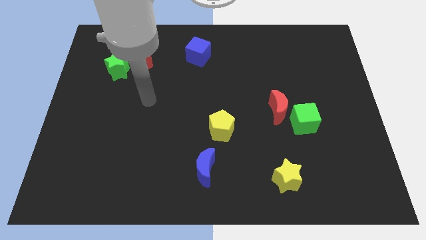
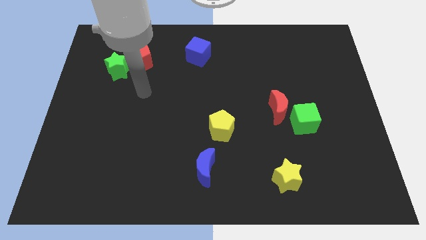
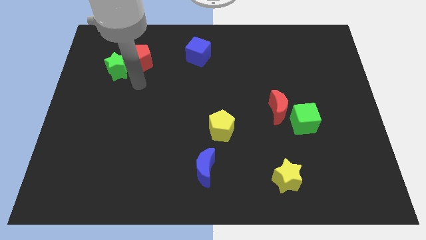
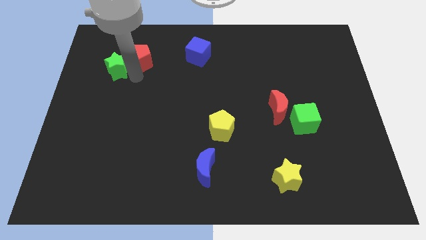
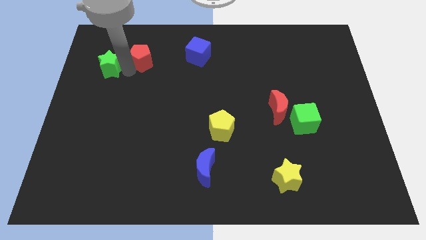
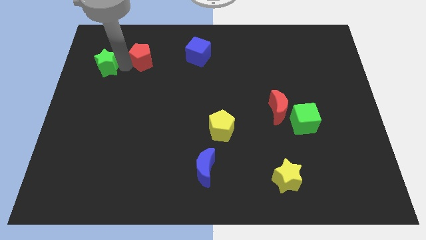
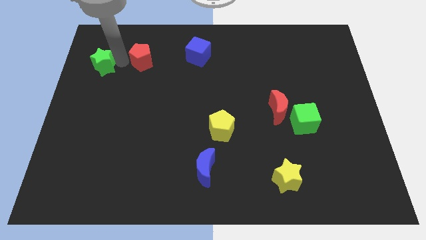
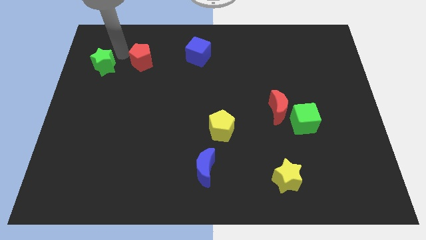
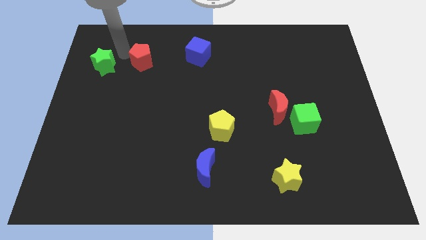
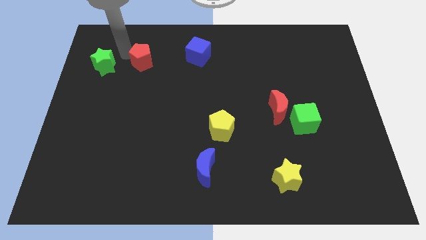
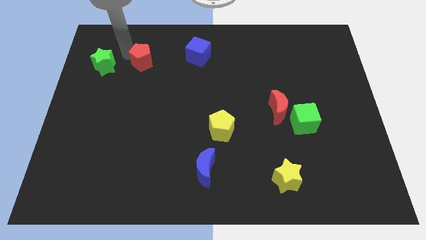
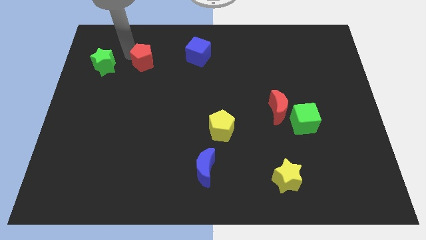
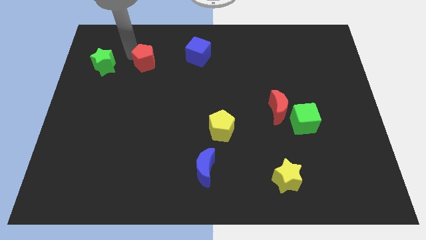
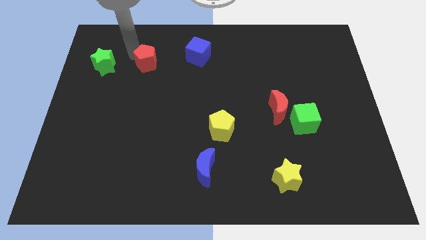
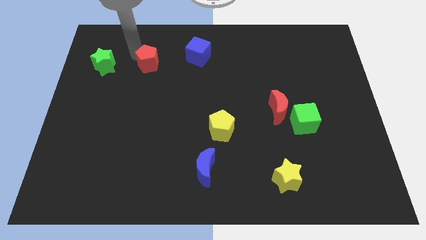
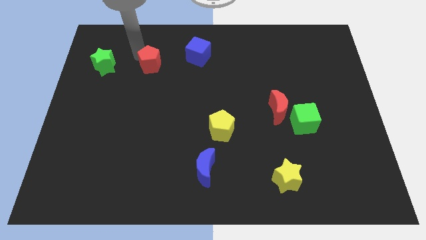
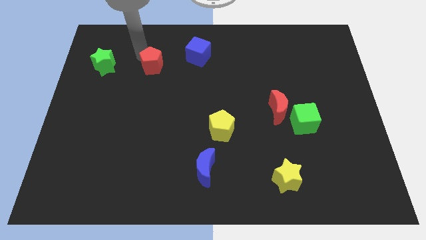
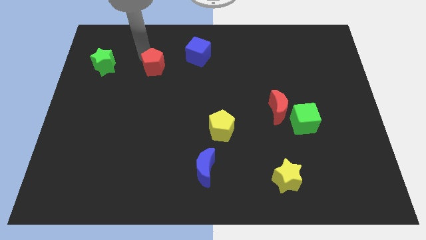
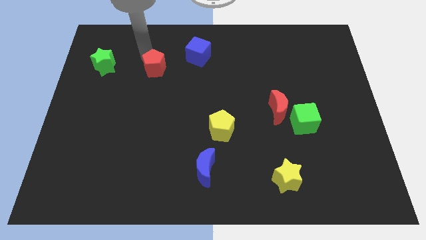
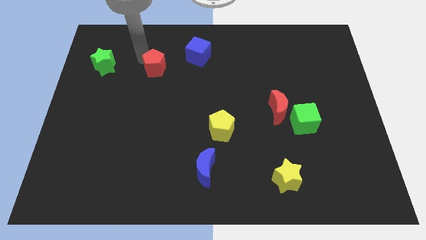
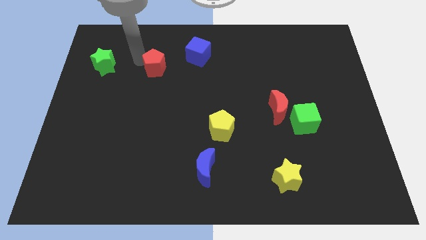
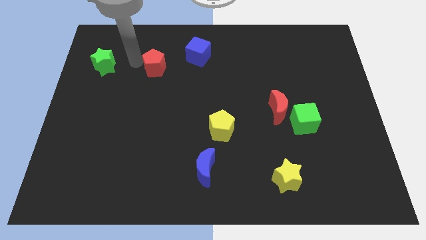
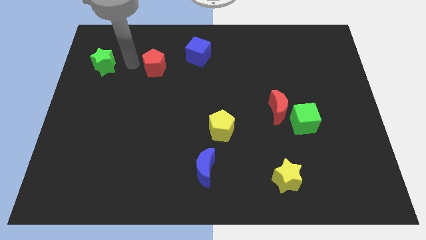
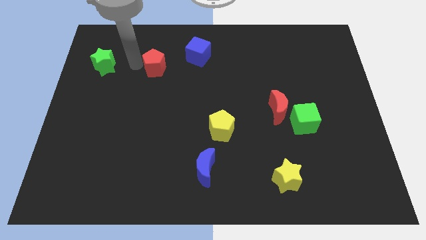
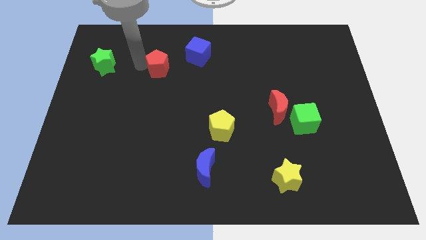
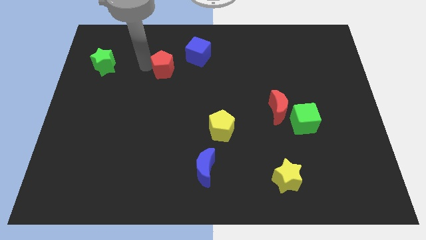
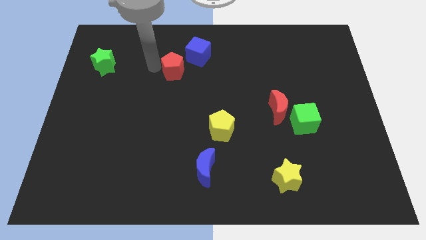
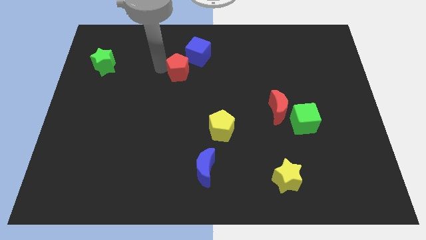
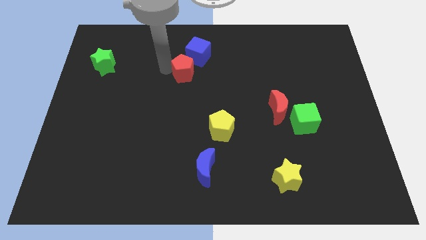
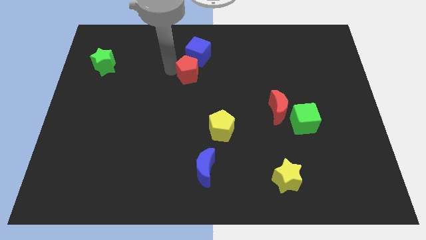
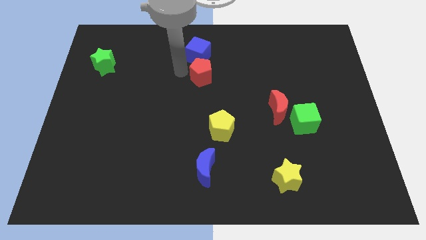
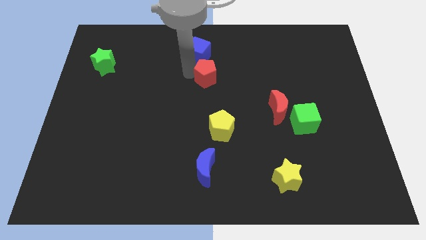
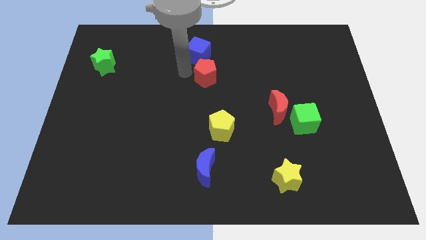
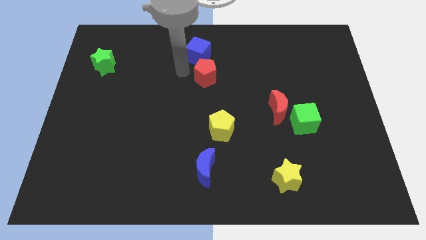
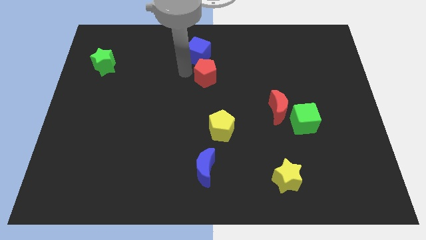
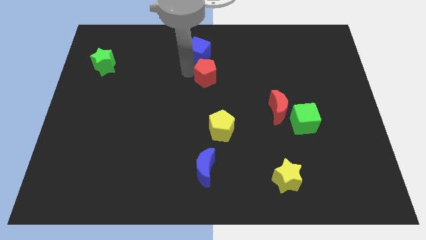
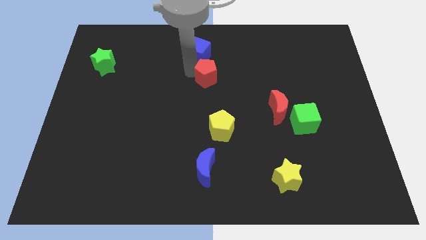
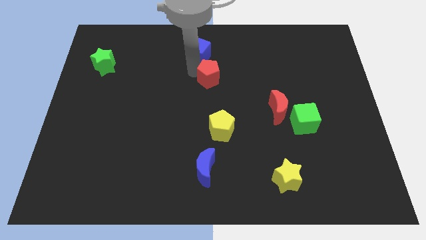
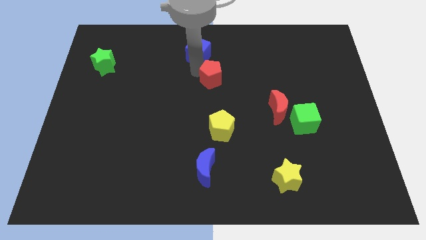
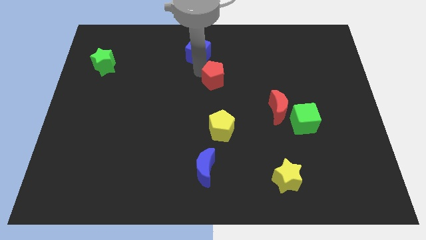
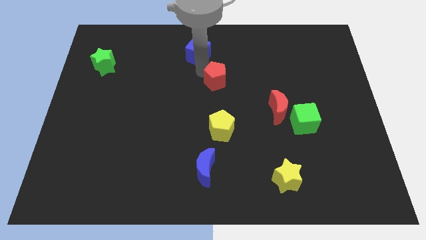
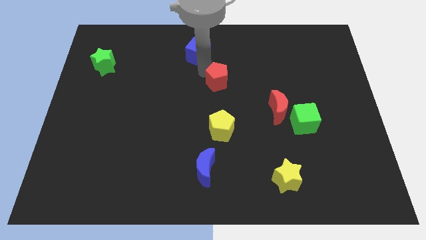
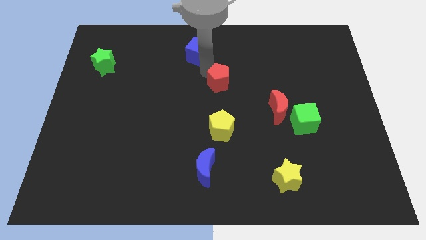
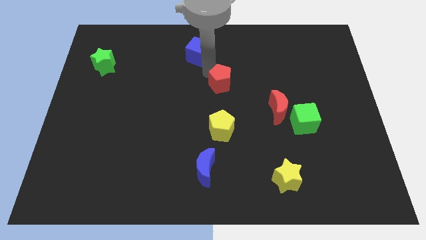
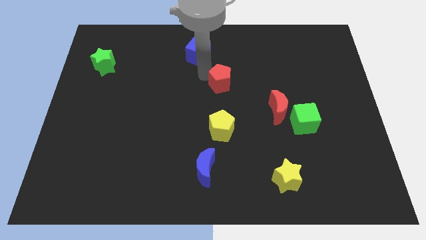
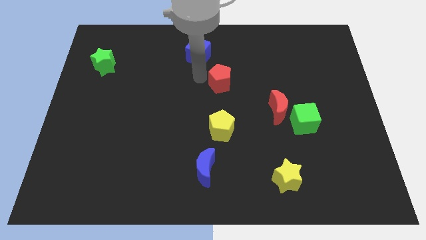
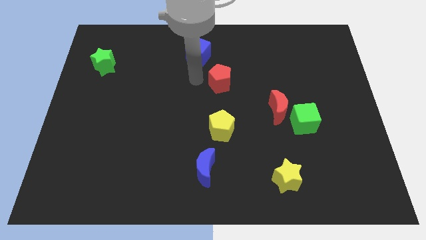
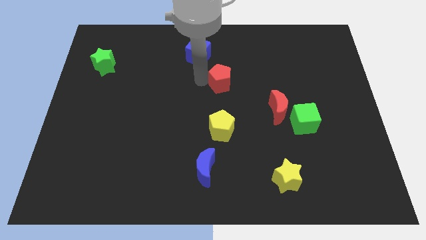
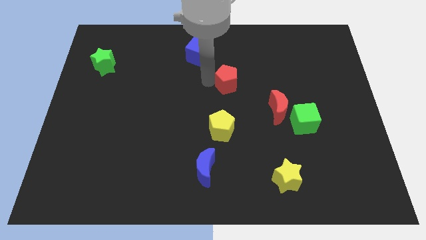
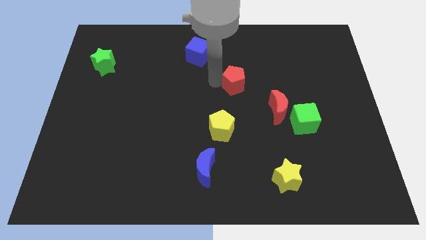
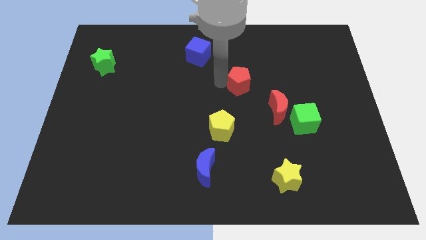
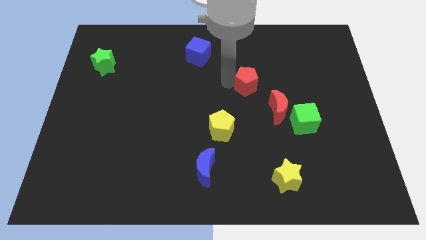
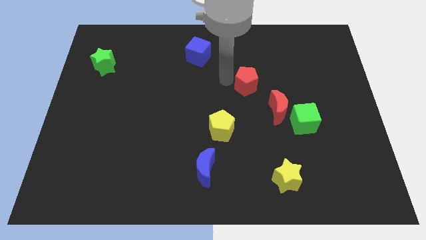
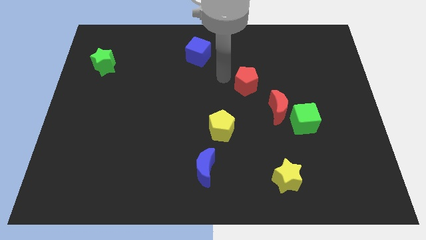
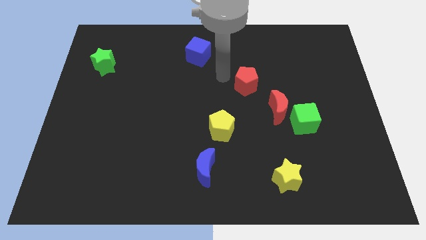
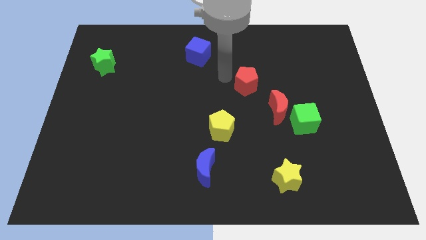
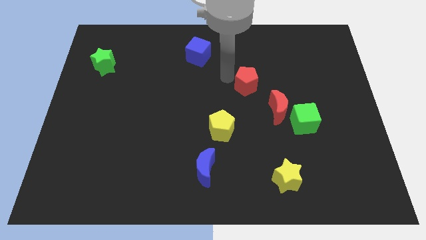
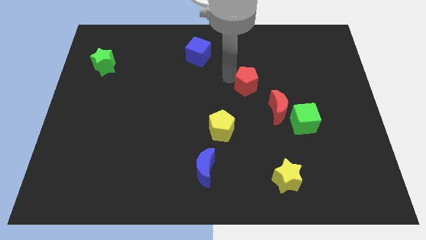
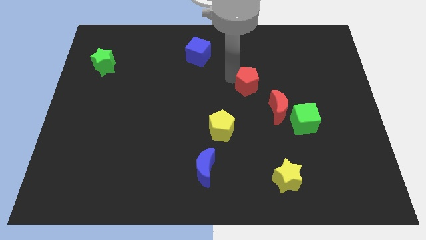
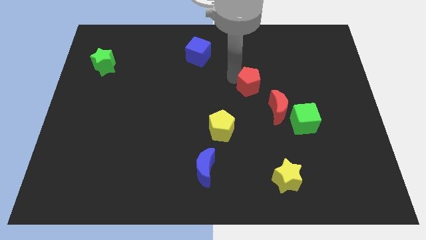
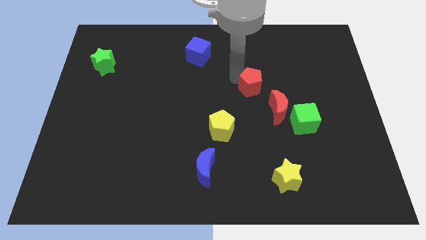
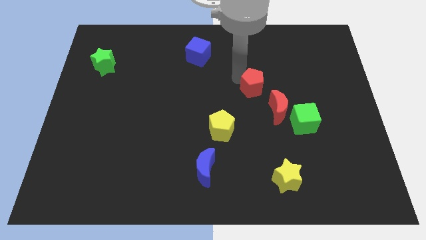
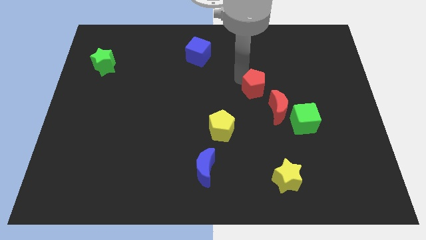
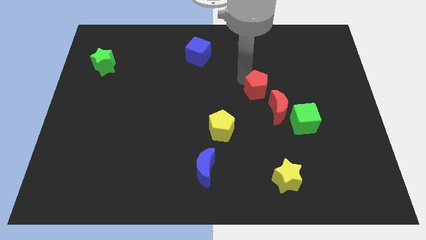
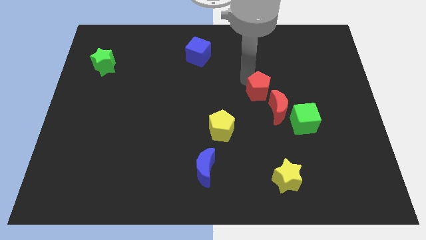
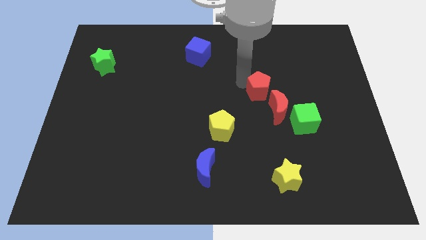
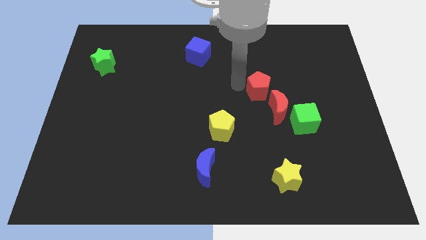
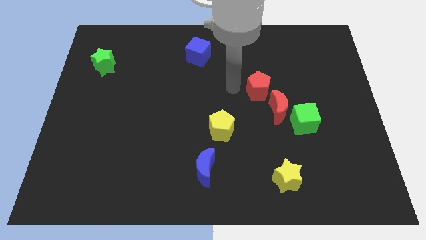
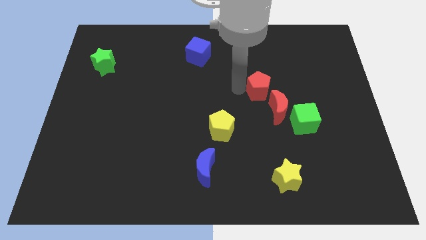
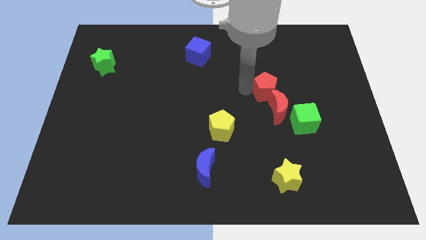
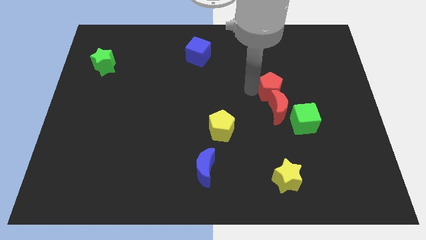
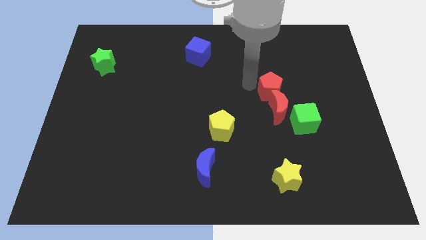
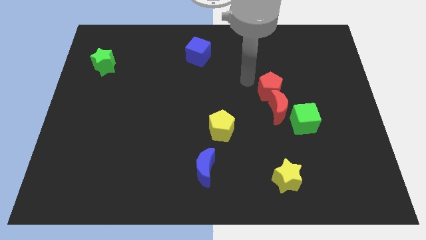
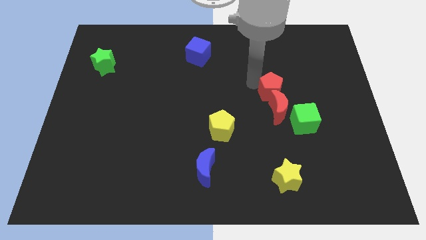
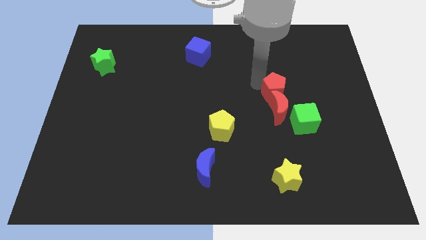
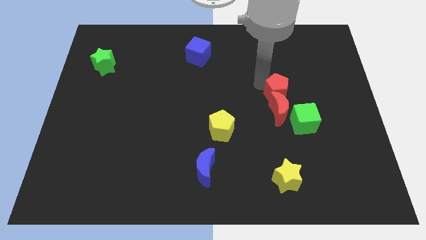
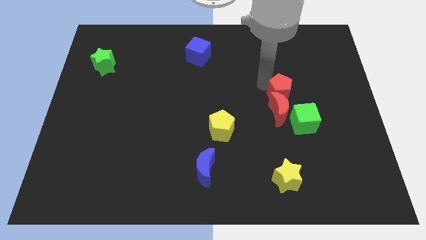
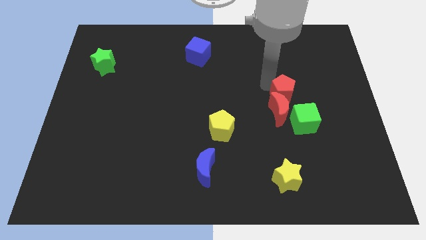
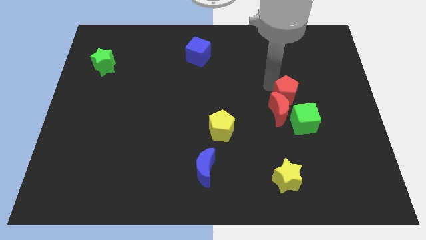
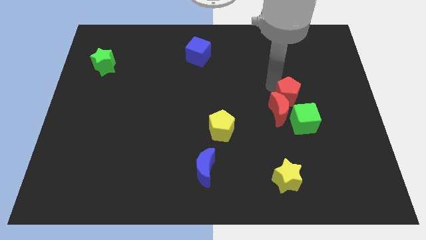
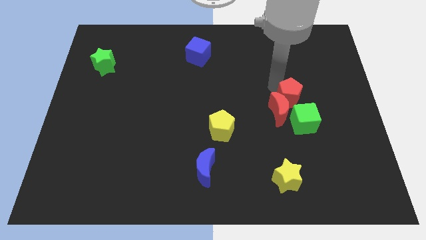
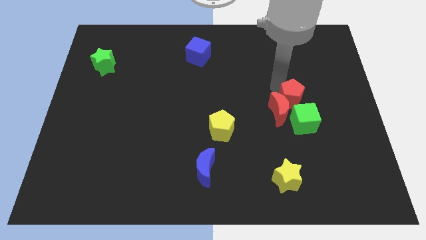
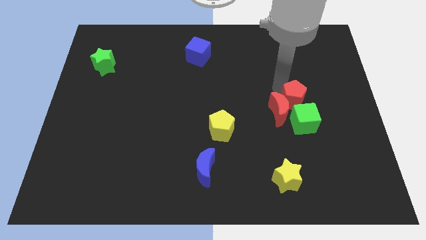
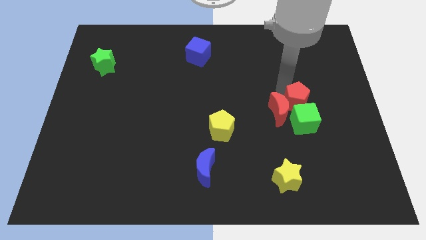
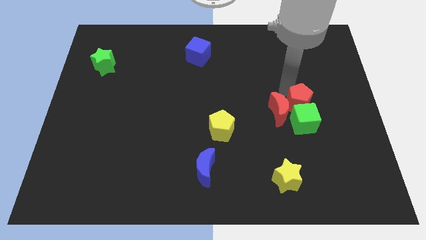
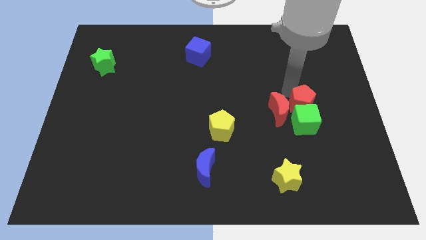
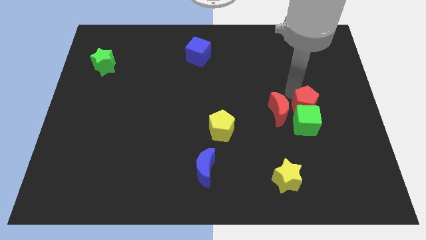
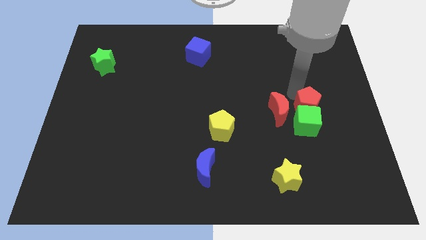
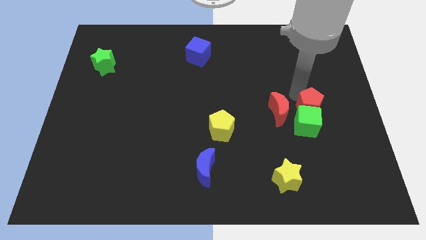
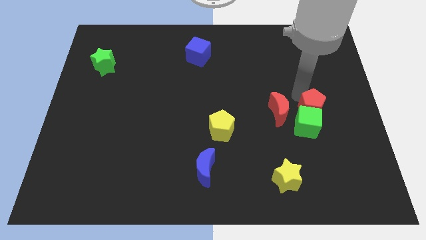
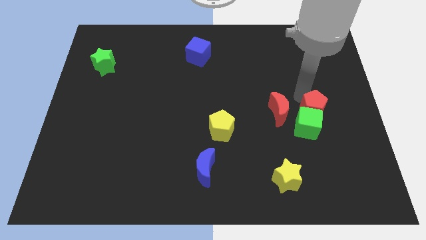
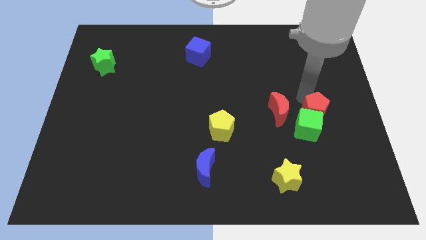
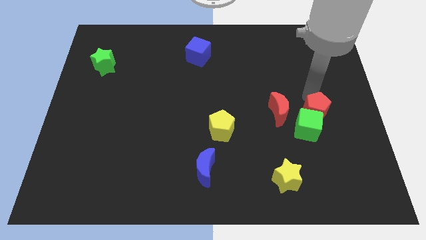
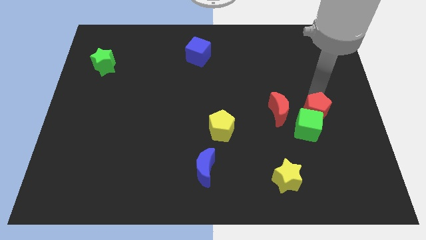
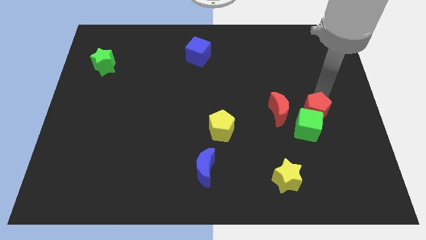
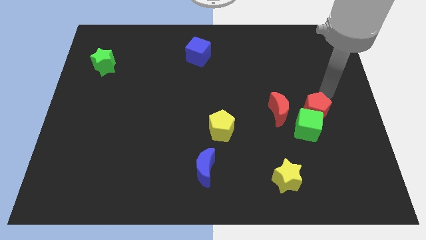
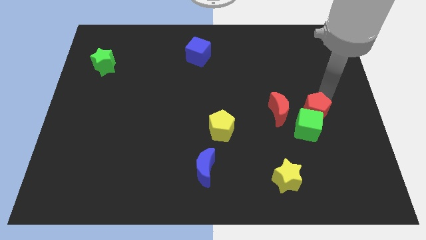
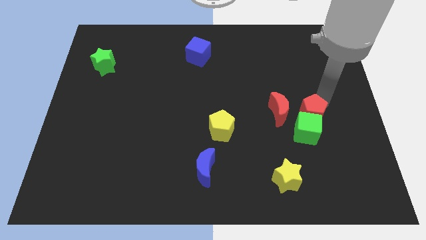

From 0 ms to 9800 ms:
put the red pentagon to the bottom right of the red moon
